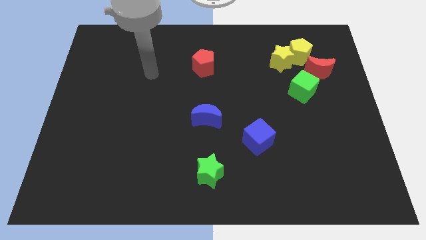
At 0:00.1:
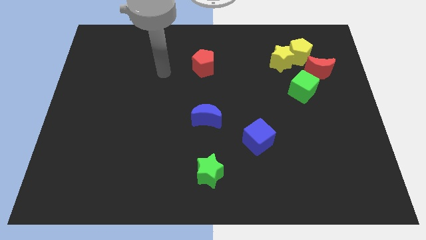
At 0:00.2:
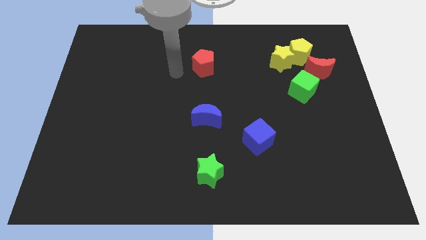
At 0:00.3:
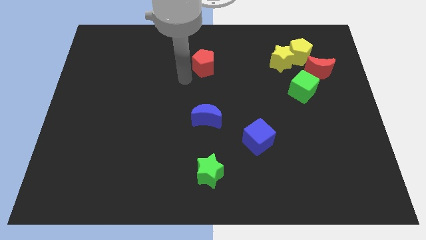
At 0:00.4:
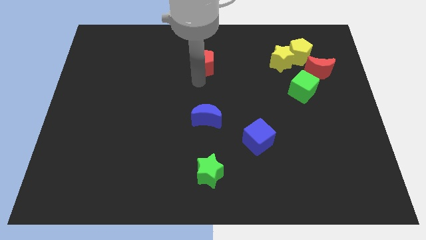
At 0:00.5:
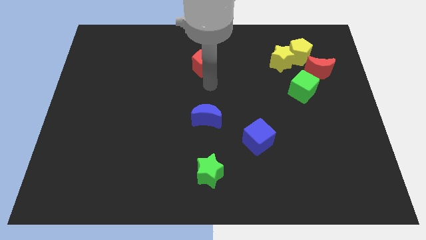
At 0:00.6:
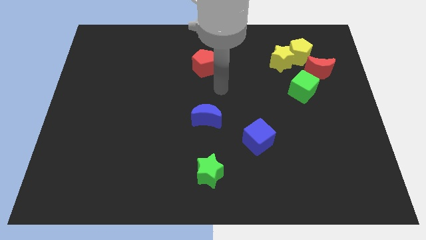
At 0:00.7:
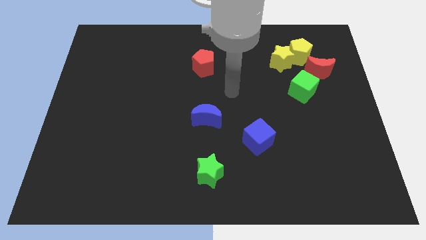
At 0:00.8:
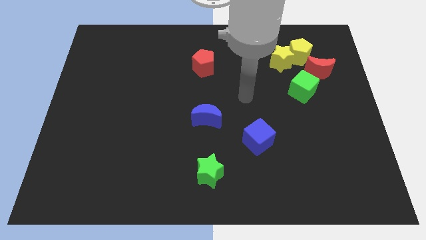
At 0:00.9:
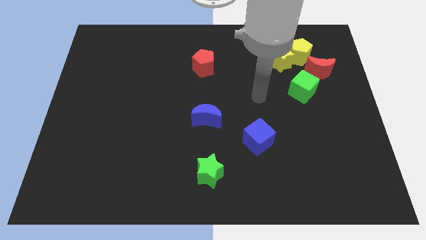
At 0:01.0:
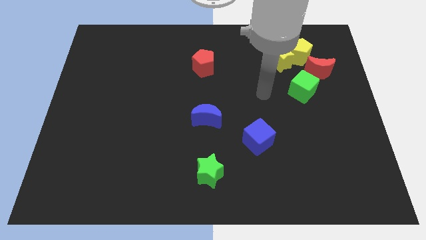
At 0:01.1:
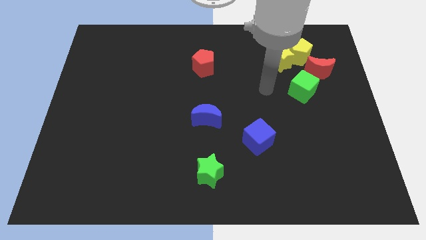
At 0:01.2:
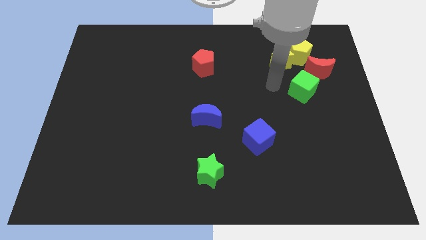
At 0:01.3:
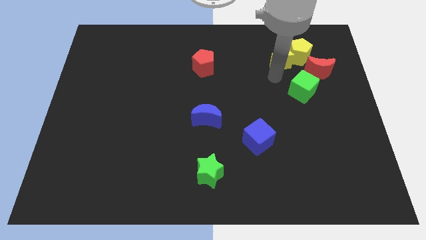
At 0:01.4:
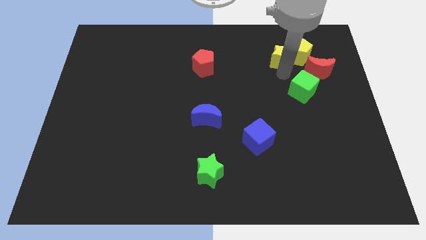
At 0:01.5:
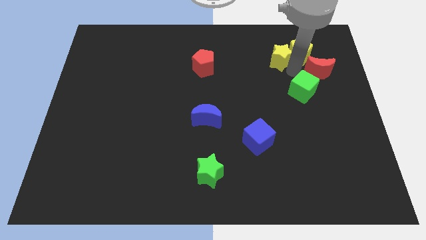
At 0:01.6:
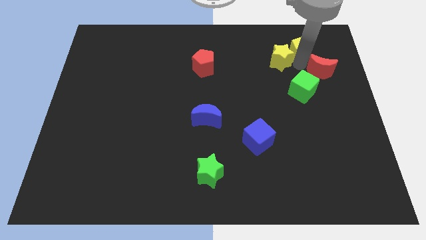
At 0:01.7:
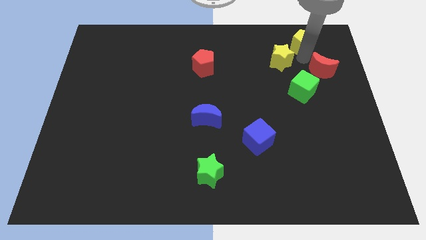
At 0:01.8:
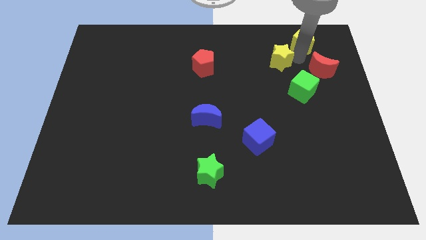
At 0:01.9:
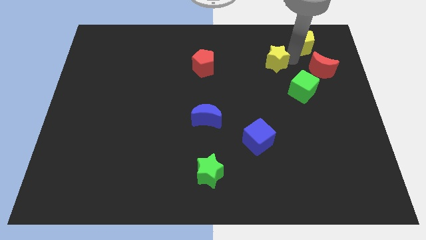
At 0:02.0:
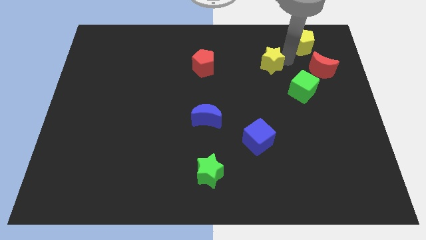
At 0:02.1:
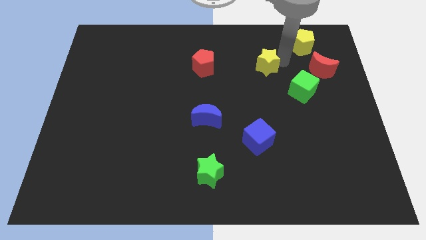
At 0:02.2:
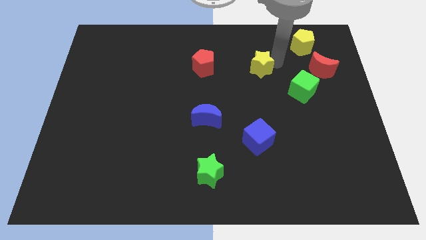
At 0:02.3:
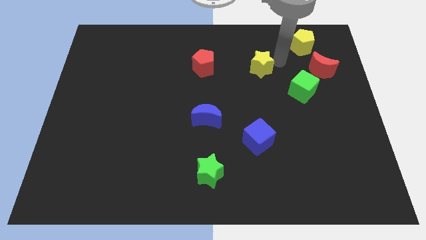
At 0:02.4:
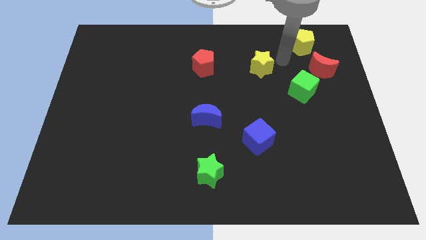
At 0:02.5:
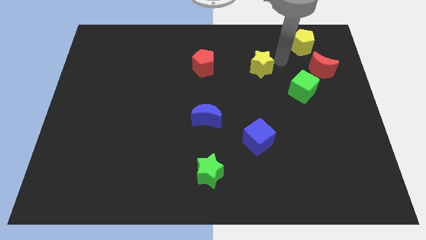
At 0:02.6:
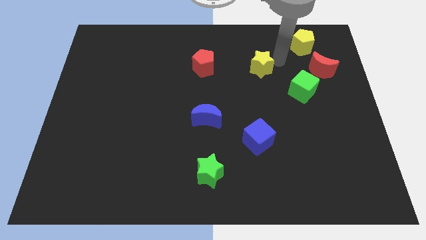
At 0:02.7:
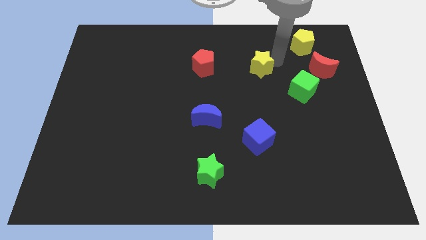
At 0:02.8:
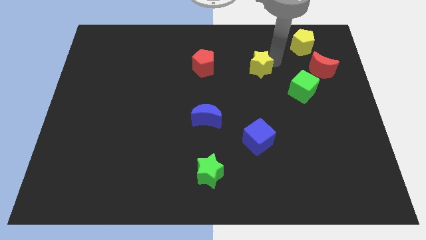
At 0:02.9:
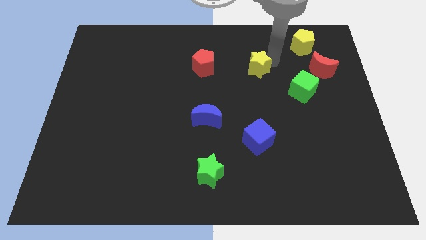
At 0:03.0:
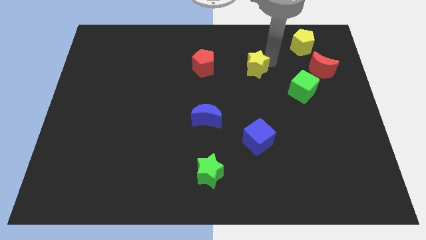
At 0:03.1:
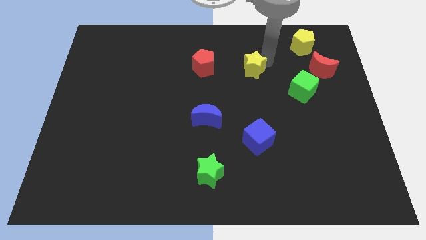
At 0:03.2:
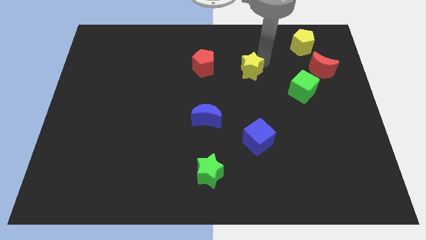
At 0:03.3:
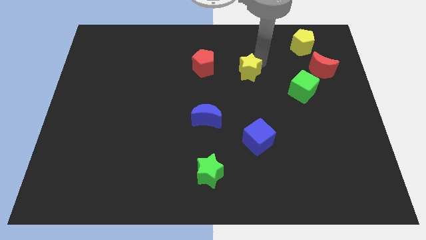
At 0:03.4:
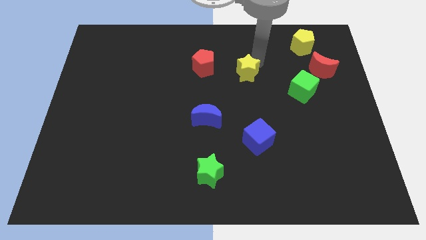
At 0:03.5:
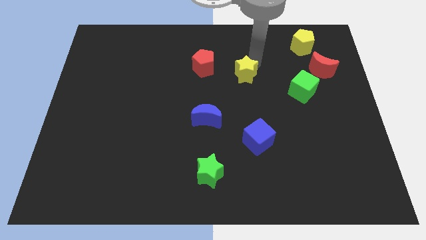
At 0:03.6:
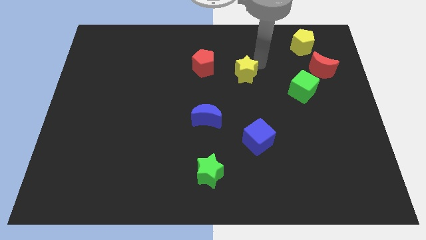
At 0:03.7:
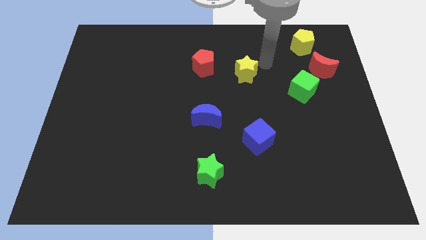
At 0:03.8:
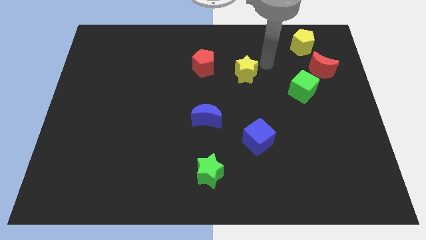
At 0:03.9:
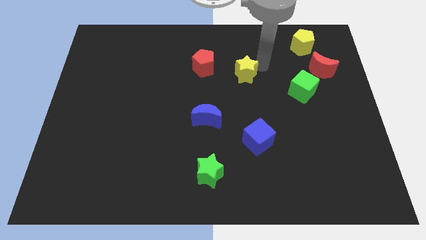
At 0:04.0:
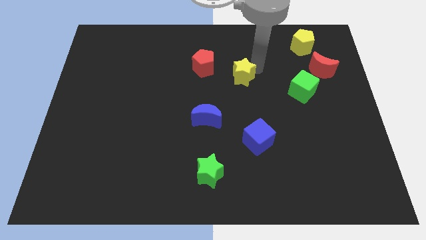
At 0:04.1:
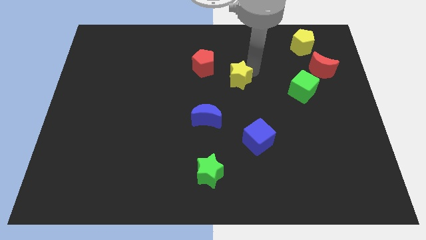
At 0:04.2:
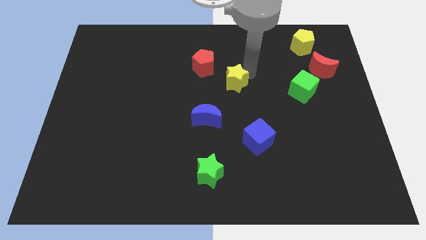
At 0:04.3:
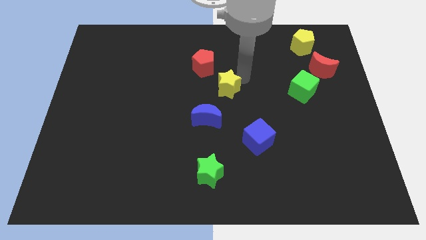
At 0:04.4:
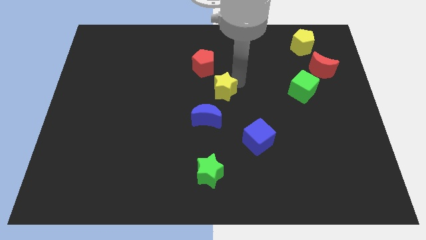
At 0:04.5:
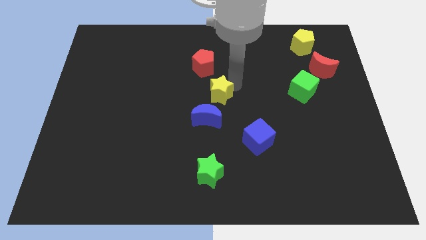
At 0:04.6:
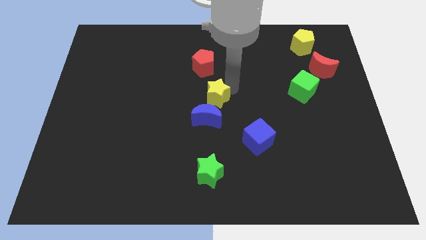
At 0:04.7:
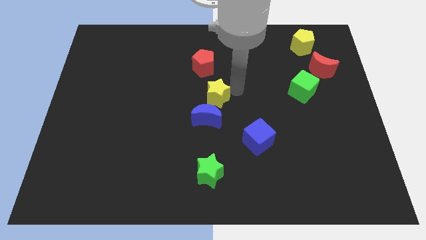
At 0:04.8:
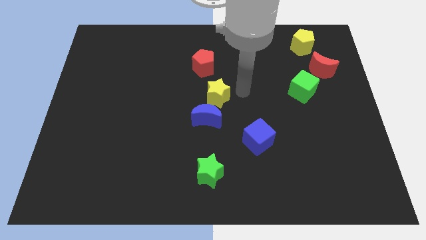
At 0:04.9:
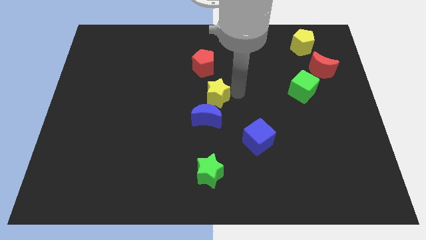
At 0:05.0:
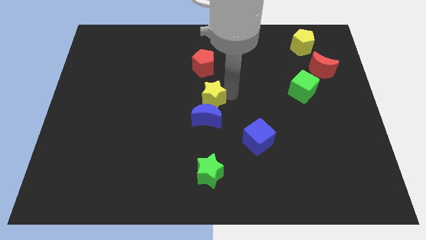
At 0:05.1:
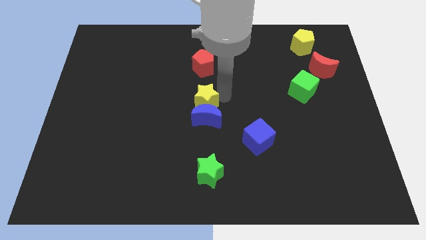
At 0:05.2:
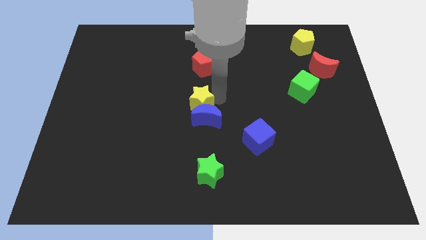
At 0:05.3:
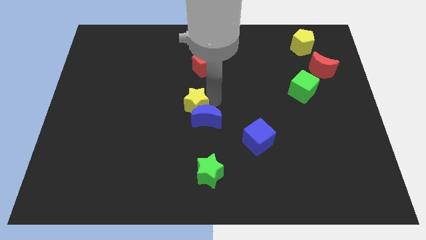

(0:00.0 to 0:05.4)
put the yellow star to the left of the blue moon

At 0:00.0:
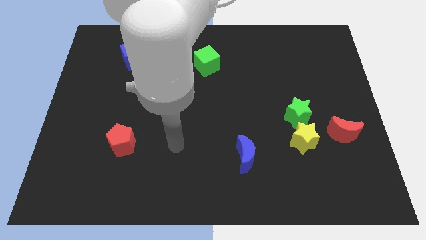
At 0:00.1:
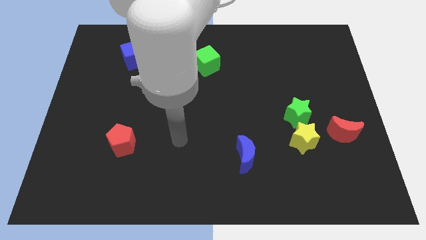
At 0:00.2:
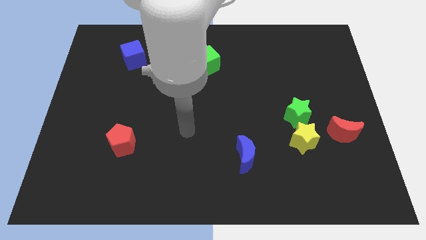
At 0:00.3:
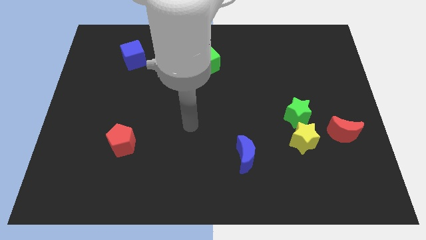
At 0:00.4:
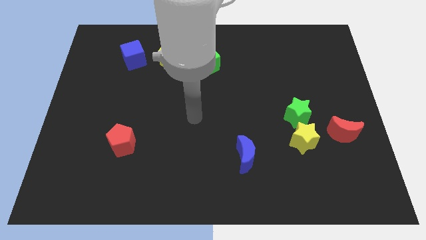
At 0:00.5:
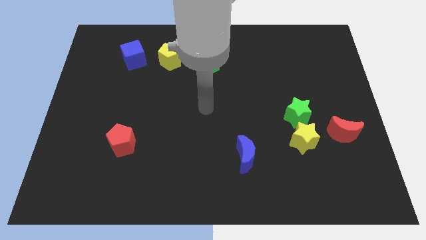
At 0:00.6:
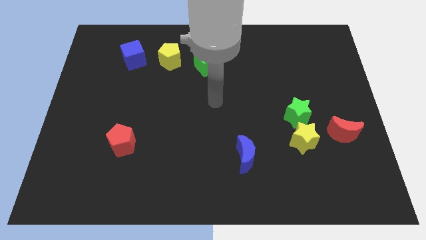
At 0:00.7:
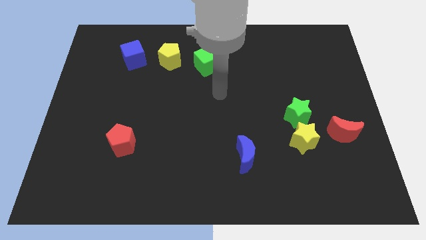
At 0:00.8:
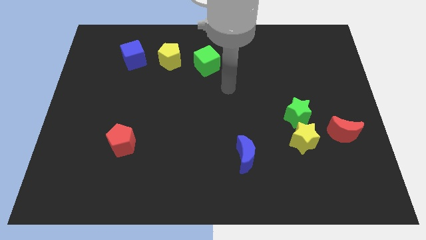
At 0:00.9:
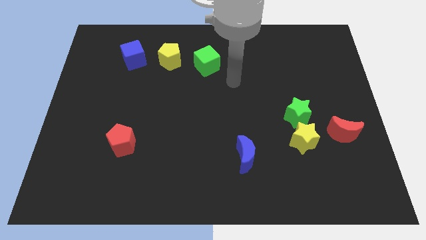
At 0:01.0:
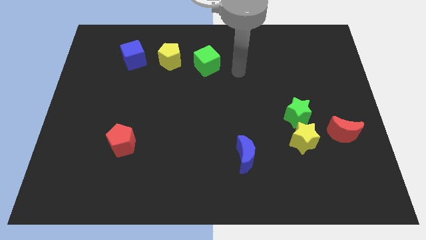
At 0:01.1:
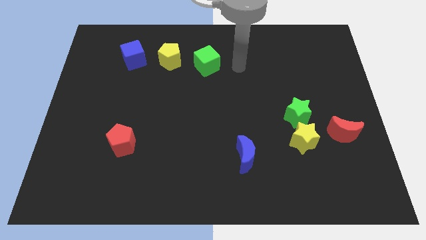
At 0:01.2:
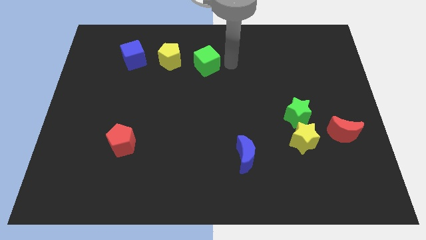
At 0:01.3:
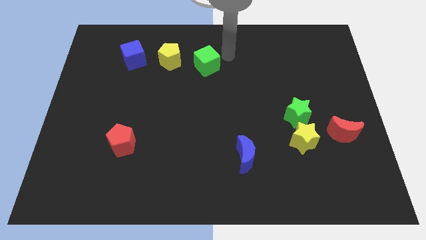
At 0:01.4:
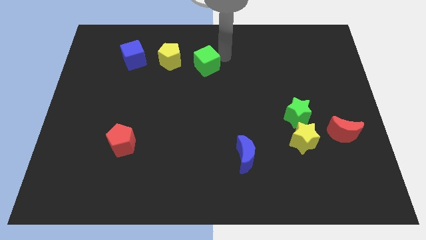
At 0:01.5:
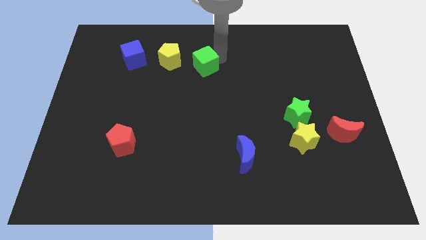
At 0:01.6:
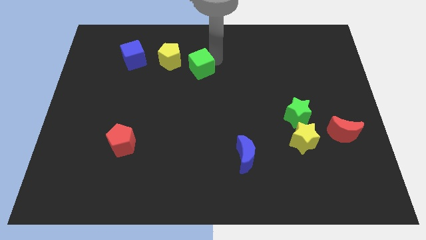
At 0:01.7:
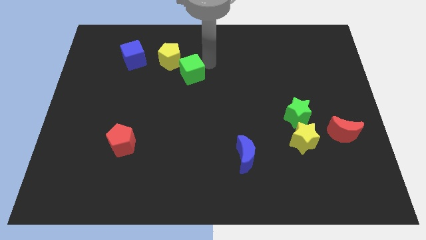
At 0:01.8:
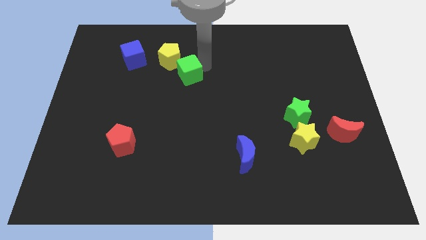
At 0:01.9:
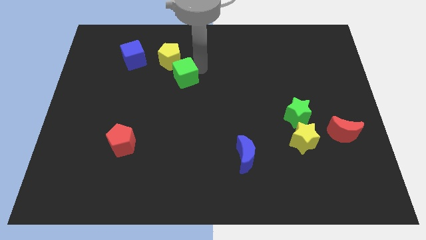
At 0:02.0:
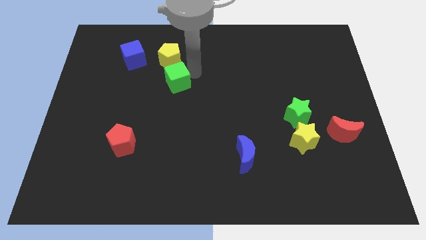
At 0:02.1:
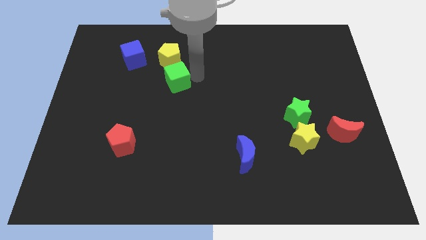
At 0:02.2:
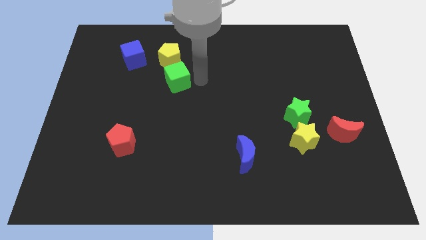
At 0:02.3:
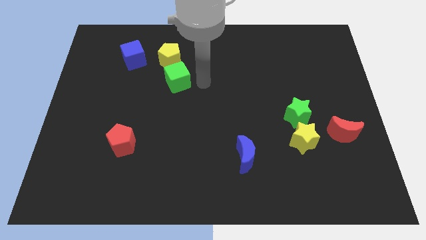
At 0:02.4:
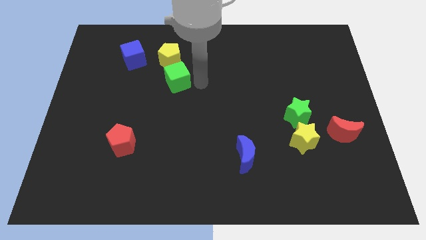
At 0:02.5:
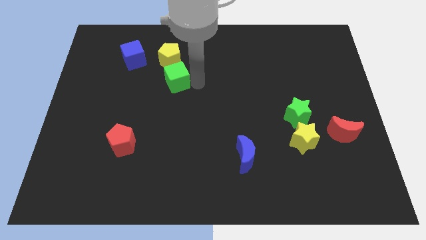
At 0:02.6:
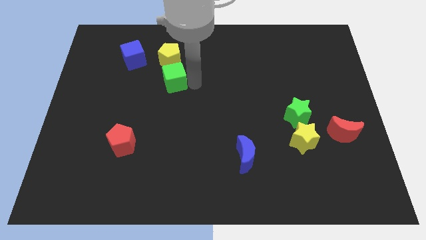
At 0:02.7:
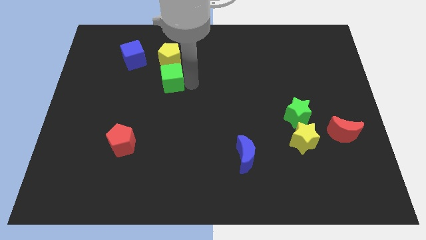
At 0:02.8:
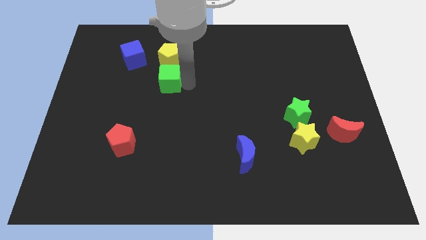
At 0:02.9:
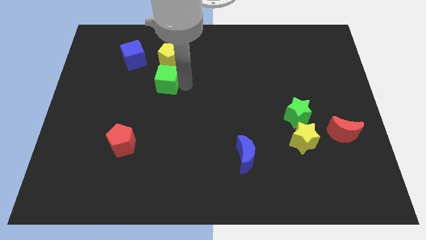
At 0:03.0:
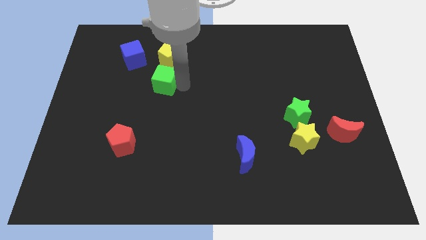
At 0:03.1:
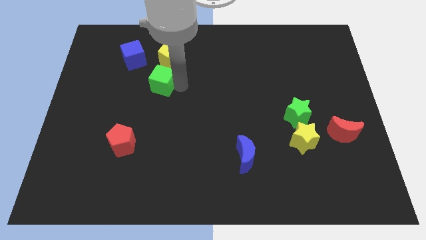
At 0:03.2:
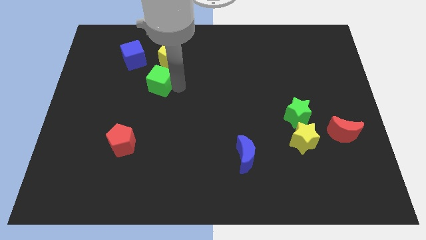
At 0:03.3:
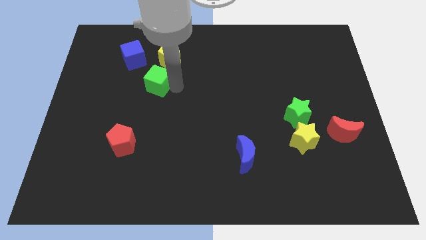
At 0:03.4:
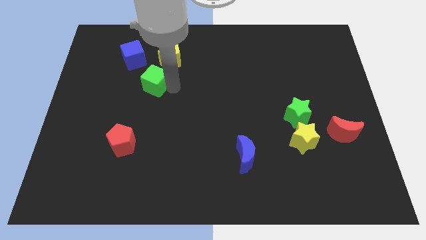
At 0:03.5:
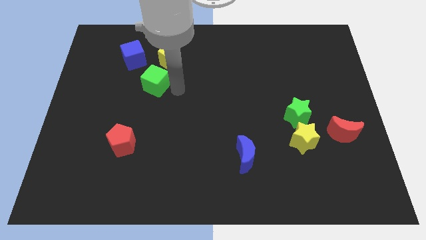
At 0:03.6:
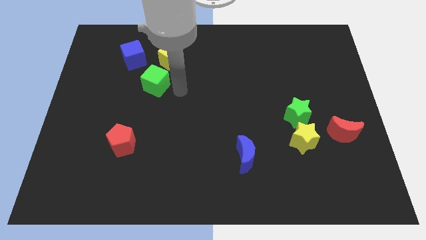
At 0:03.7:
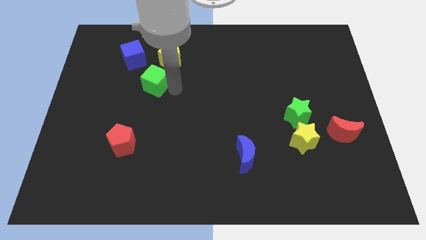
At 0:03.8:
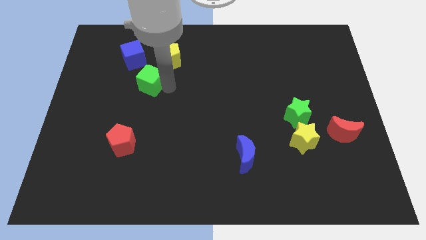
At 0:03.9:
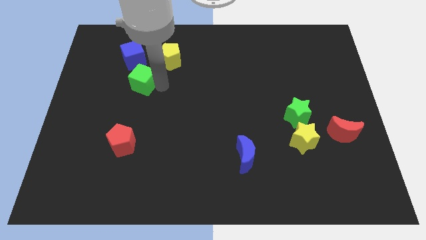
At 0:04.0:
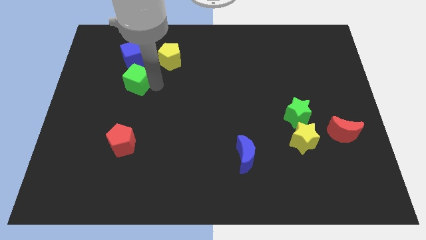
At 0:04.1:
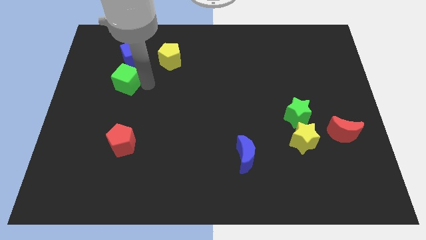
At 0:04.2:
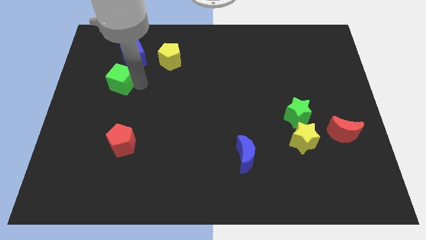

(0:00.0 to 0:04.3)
push the green cube diagonally down and to the left of the blue cube
